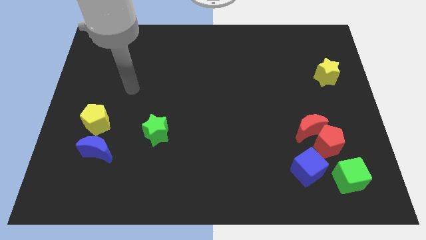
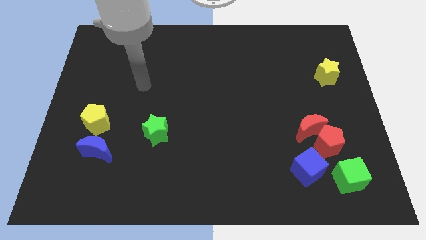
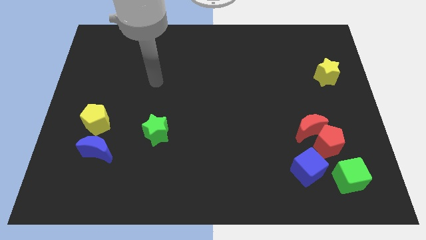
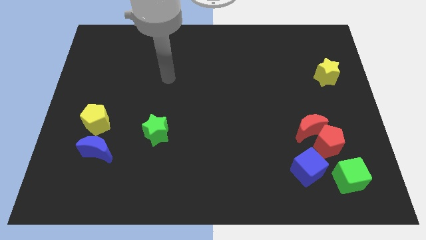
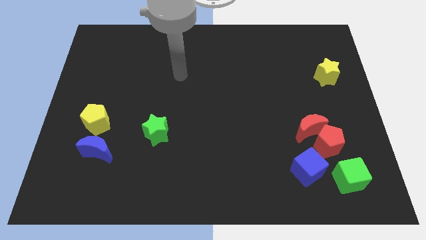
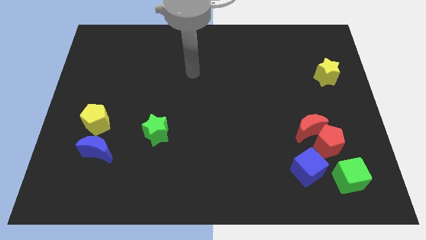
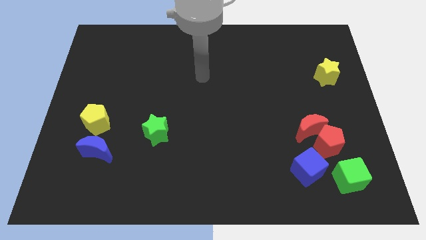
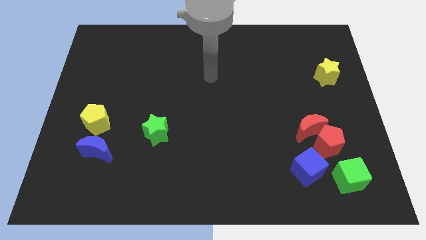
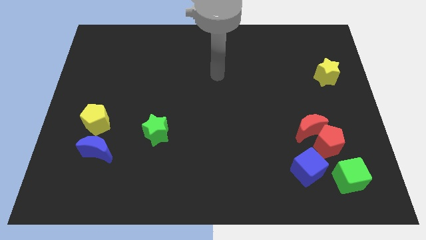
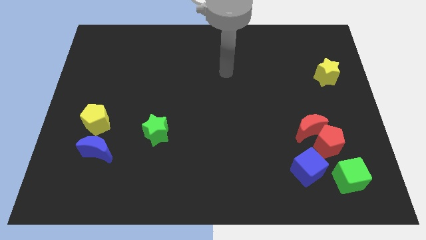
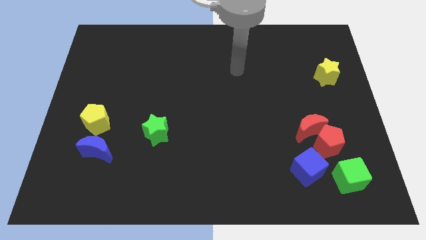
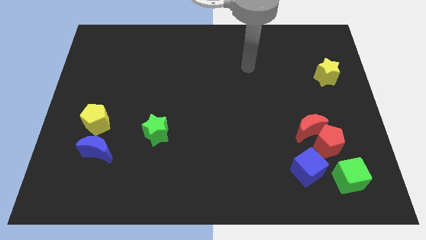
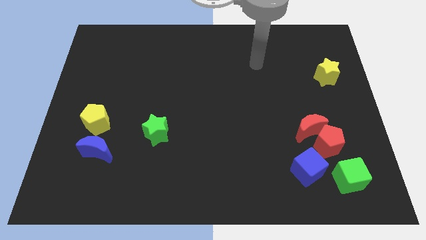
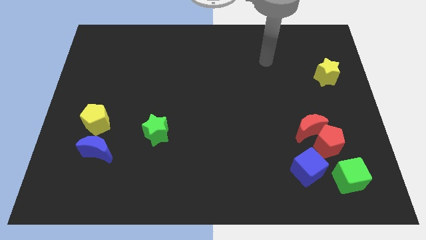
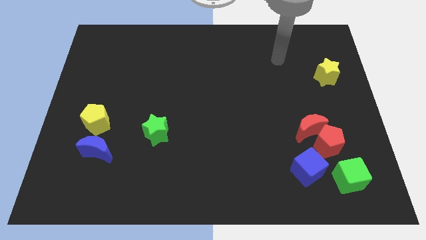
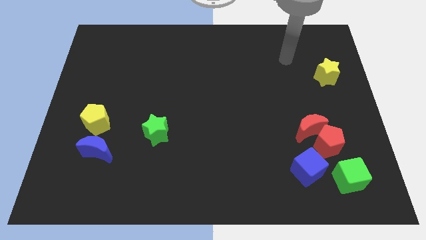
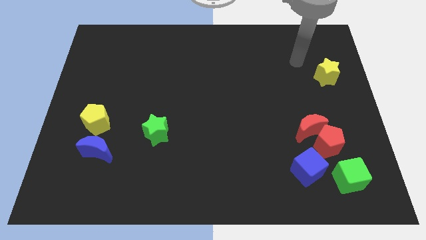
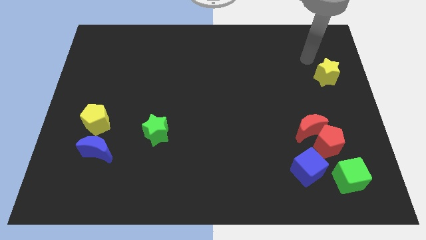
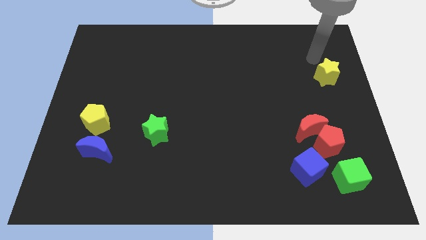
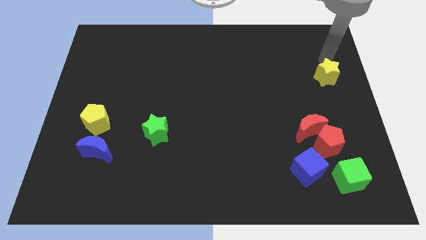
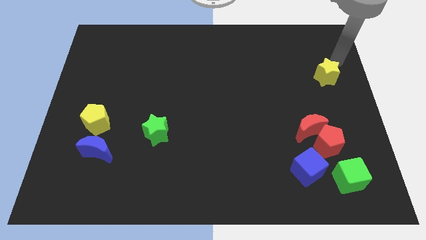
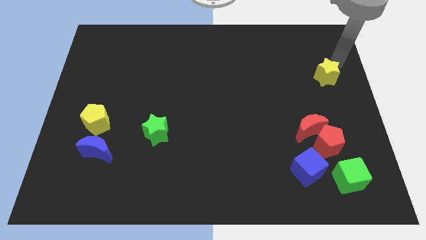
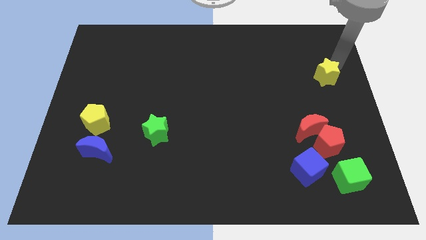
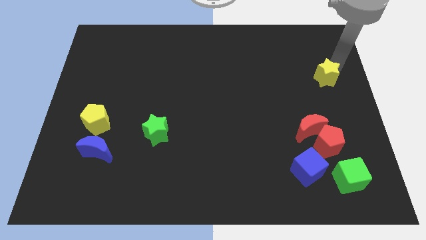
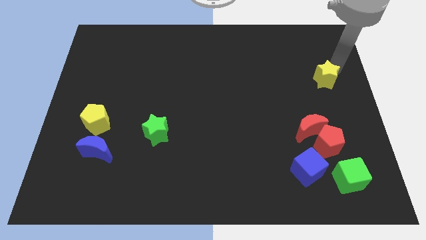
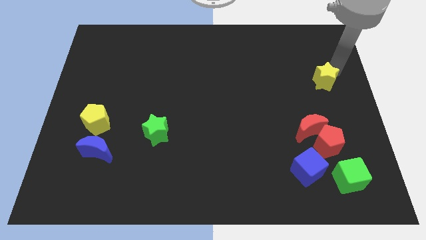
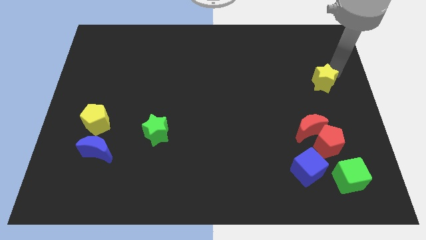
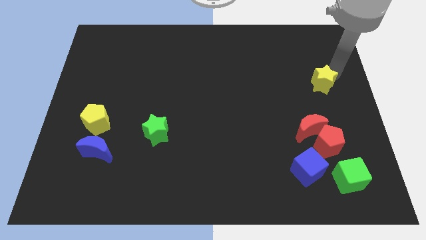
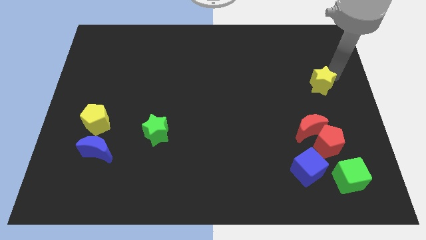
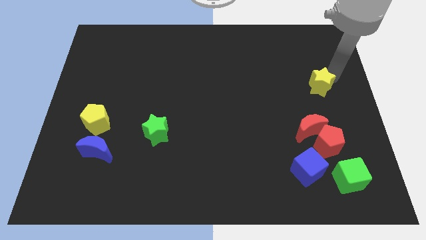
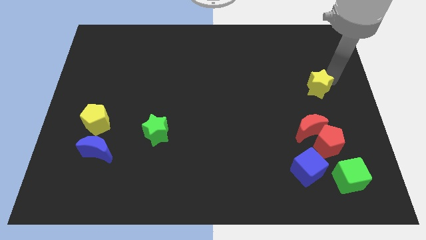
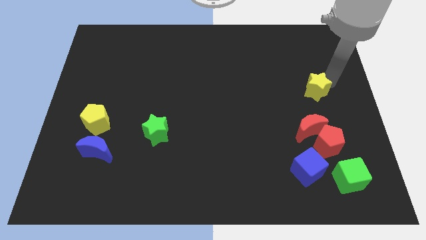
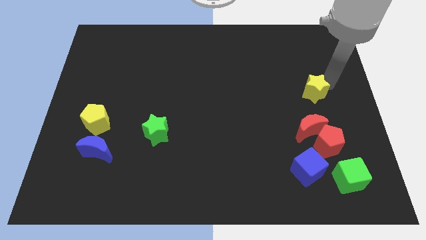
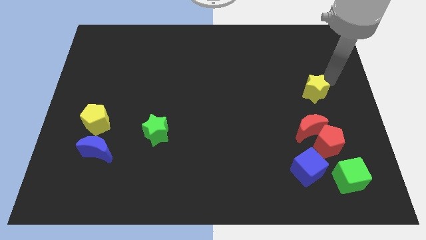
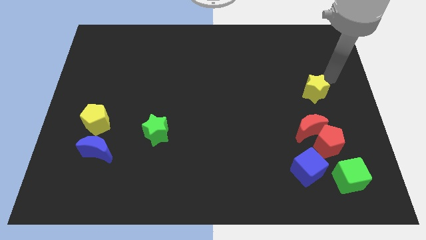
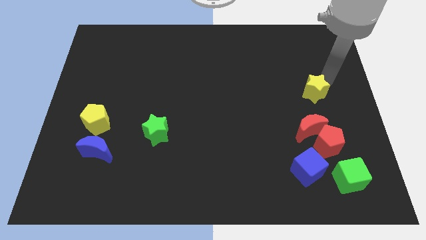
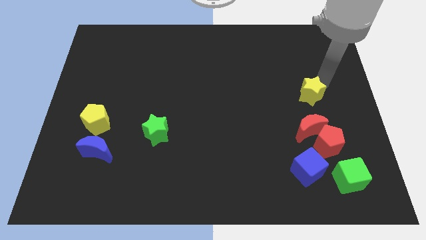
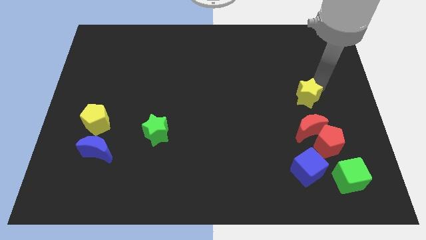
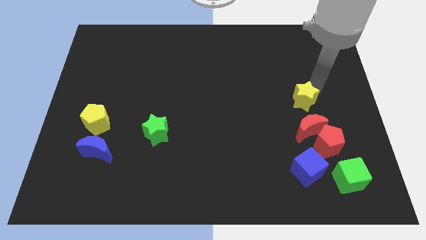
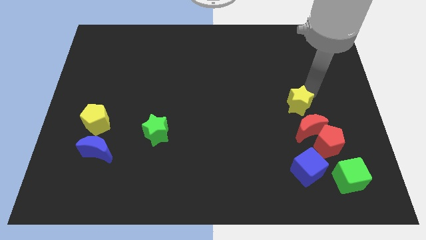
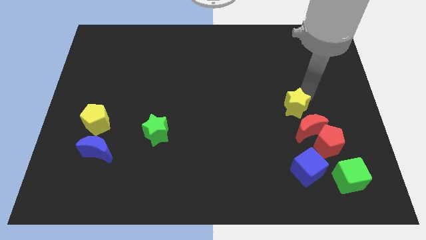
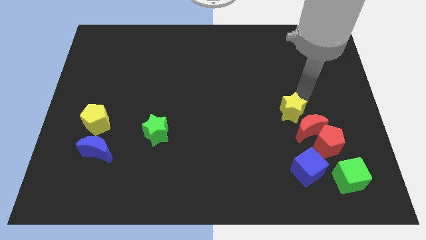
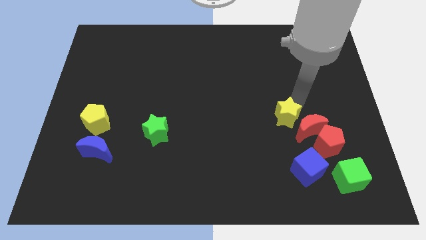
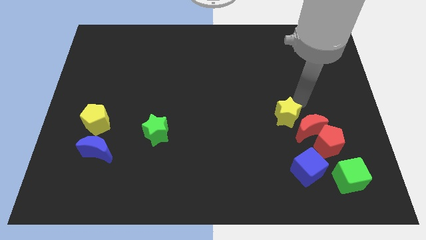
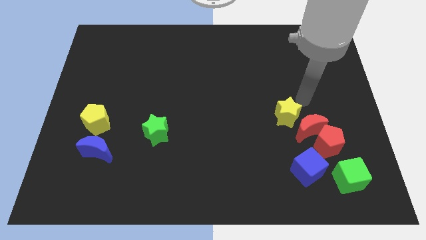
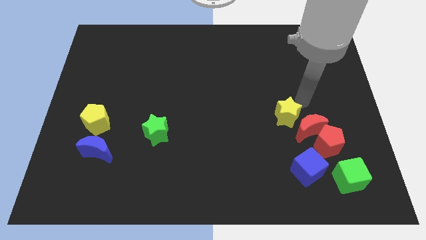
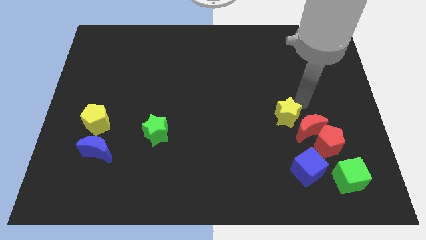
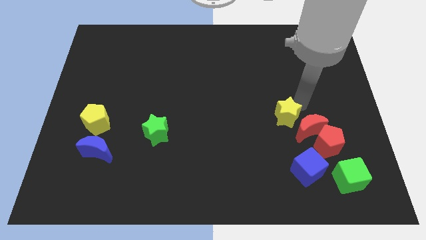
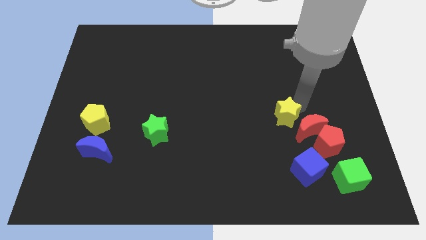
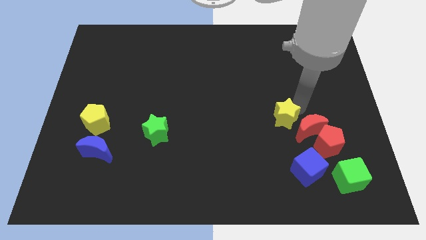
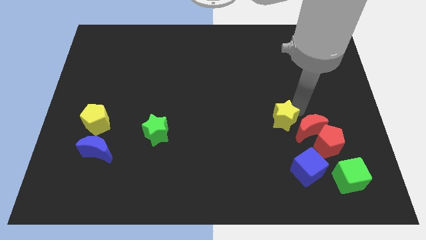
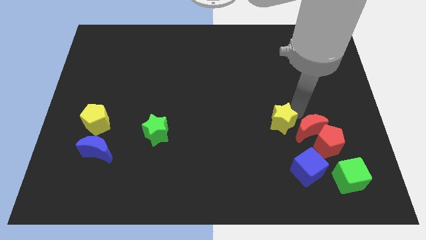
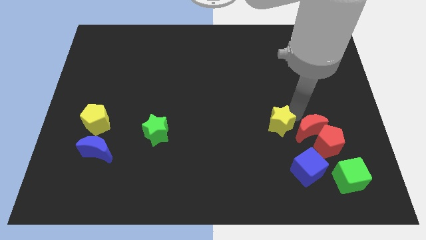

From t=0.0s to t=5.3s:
slide the yellow star down and left diagonally

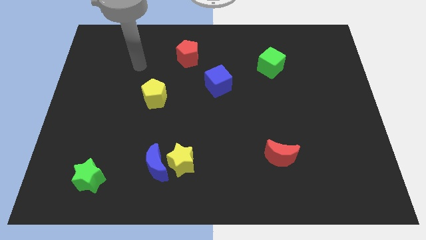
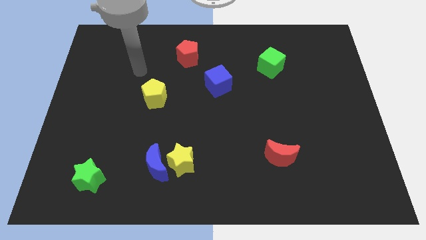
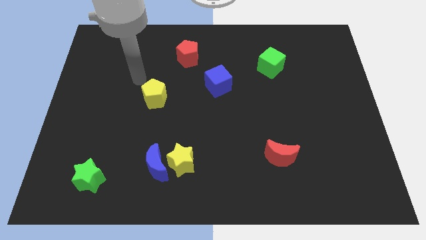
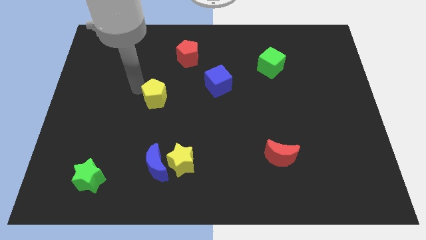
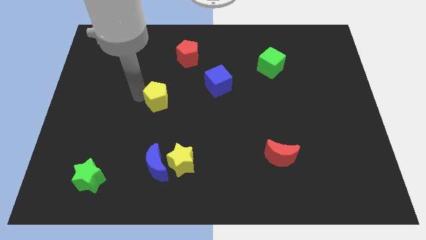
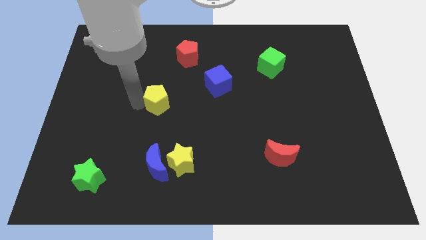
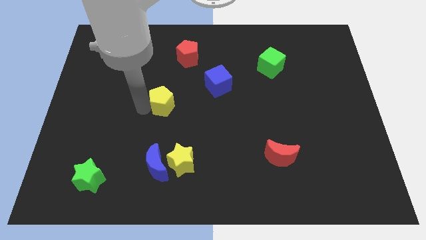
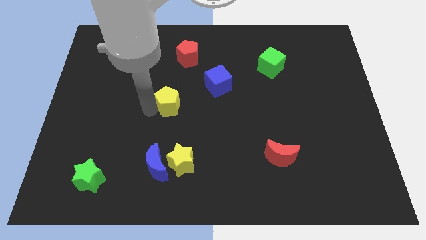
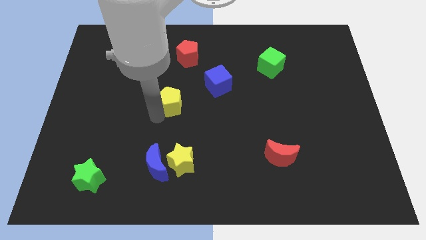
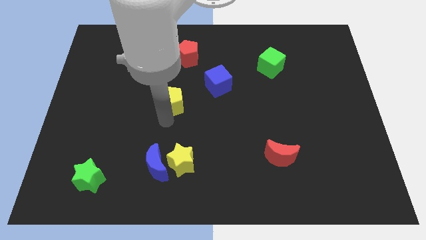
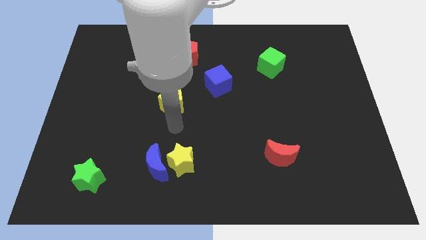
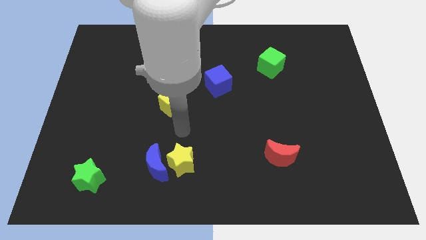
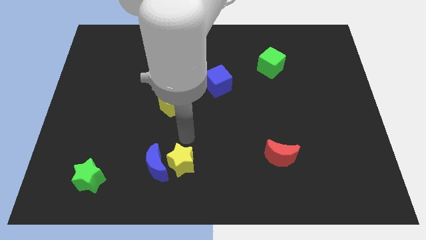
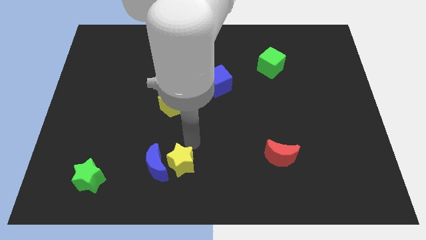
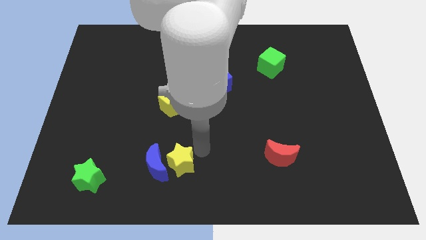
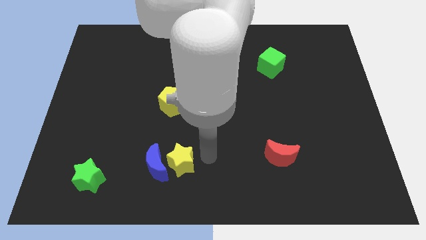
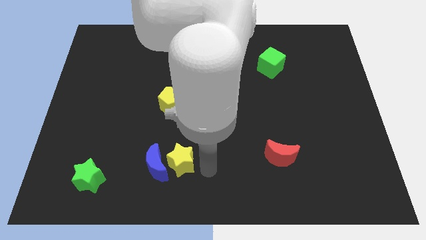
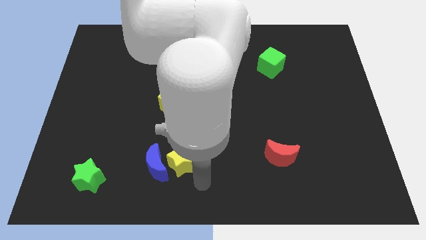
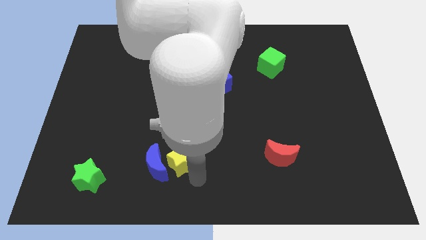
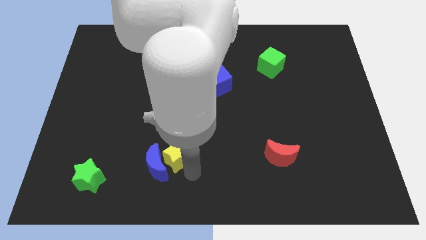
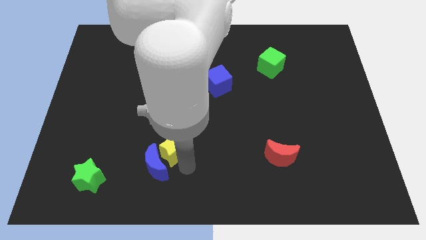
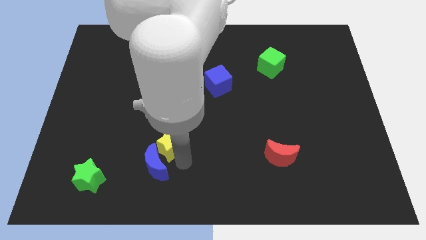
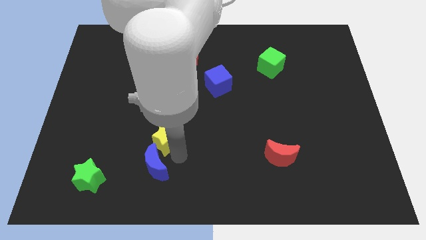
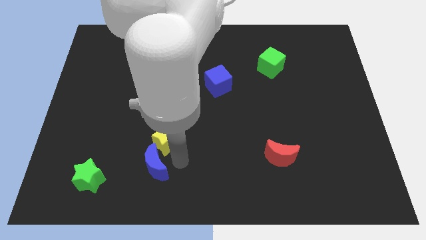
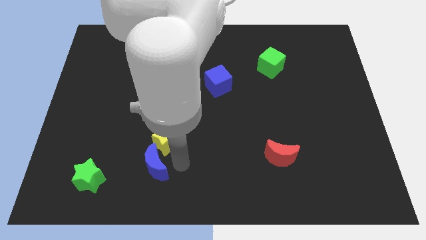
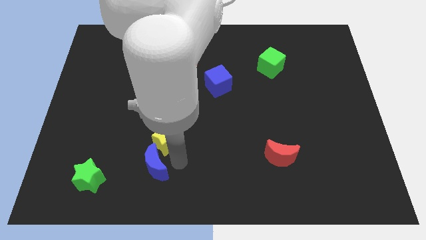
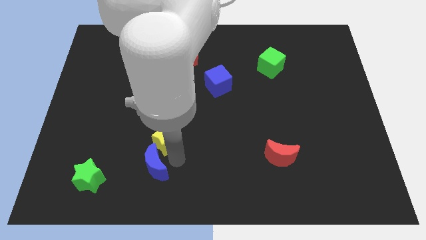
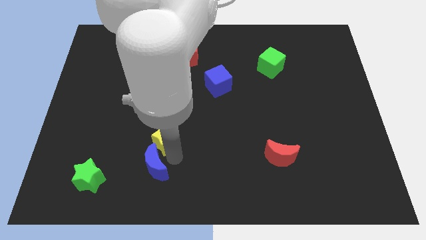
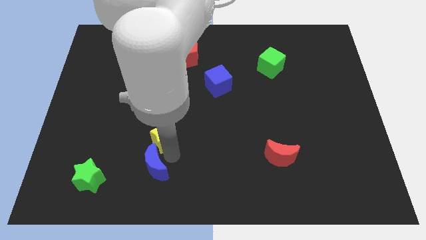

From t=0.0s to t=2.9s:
slightly slide the yellow star up and to the left diagonally

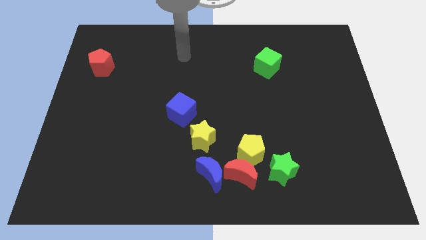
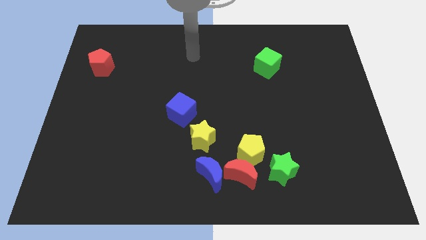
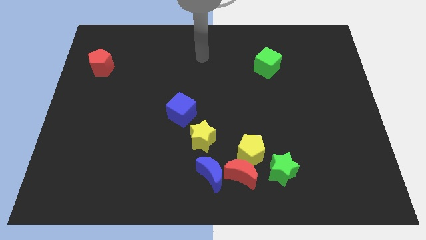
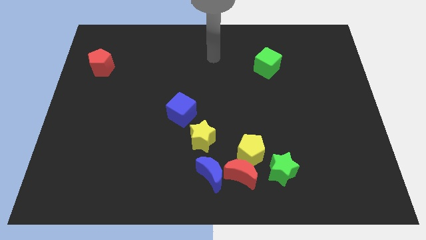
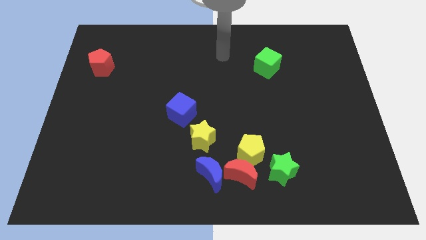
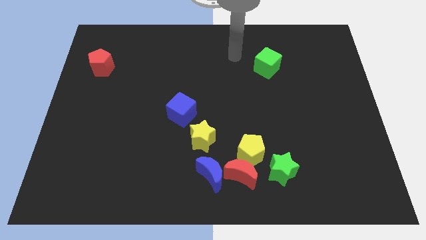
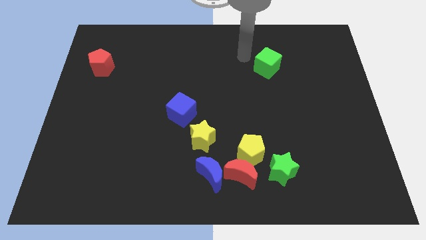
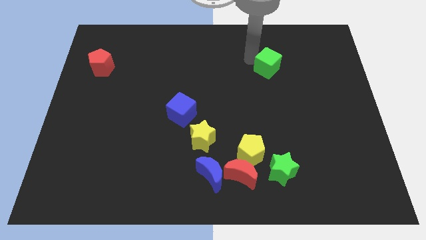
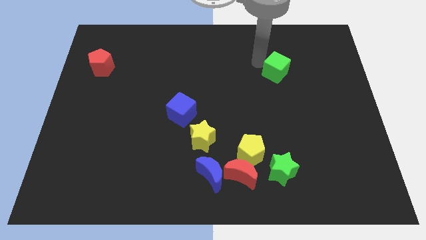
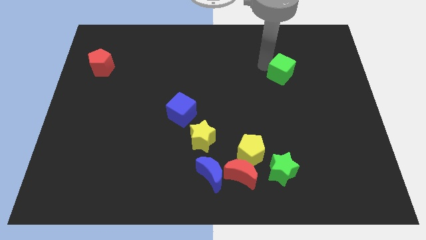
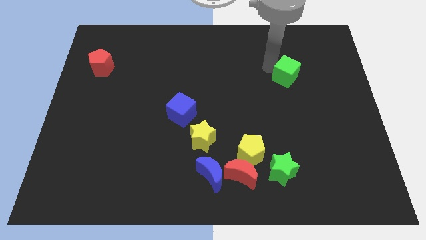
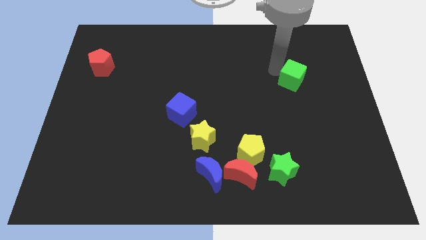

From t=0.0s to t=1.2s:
slide the green cube downwards and right diagonally slightly
